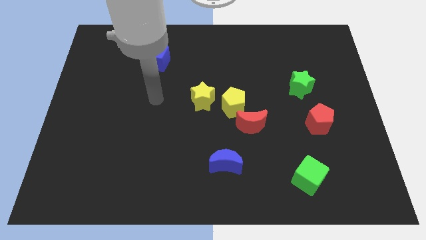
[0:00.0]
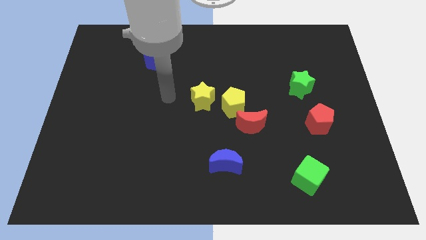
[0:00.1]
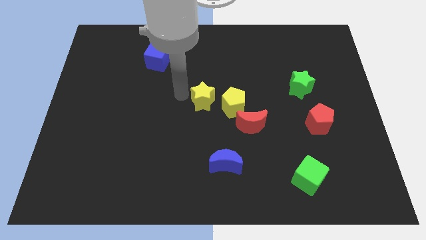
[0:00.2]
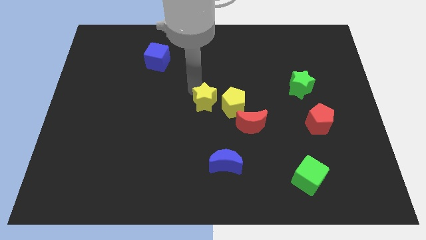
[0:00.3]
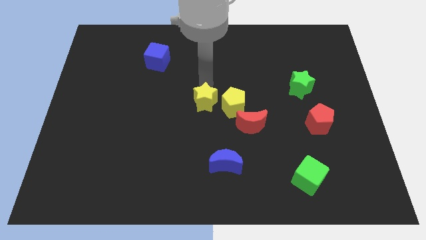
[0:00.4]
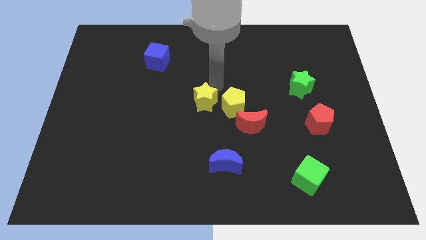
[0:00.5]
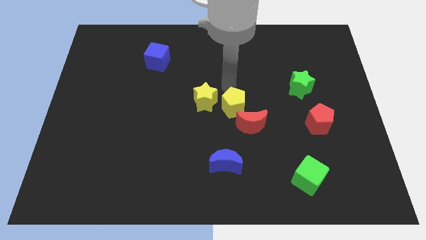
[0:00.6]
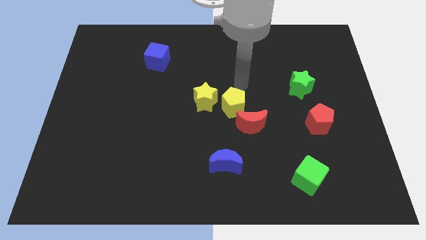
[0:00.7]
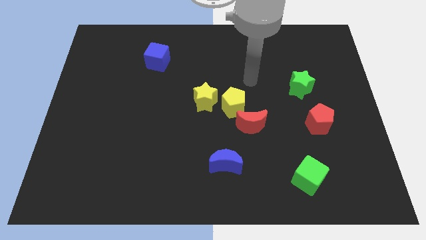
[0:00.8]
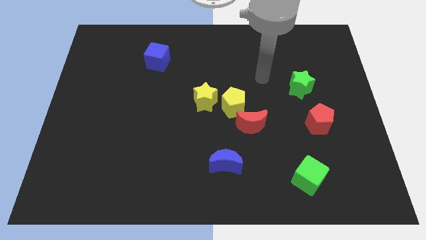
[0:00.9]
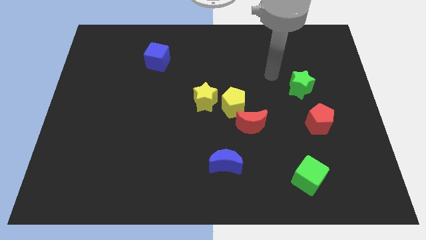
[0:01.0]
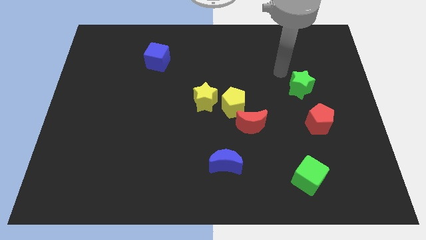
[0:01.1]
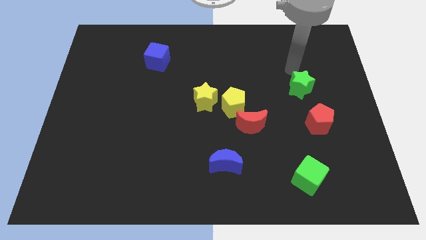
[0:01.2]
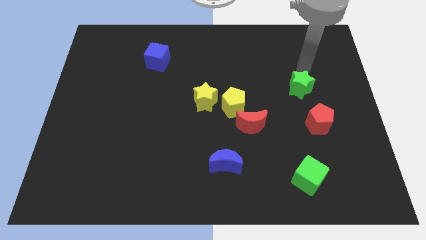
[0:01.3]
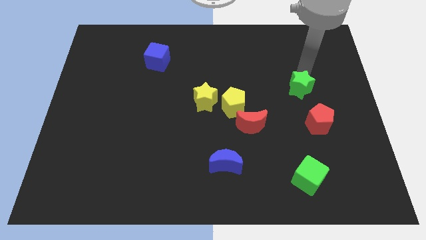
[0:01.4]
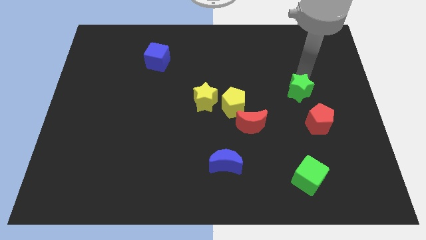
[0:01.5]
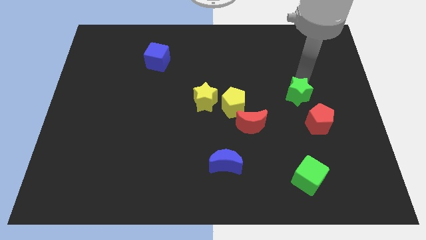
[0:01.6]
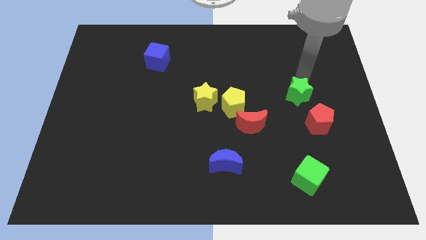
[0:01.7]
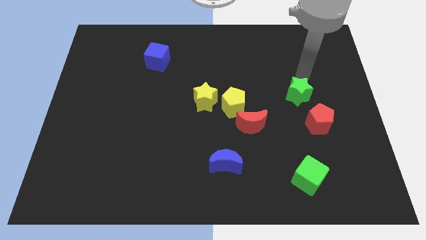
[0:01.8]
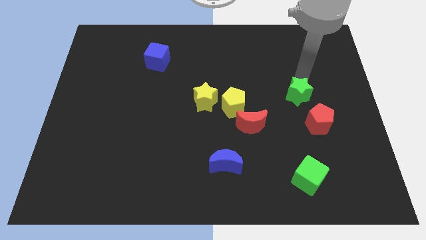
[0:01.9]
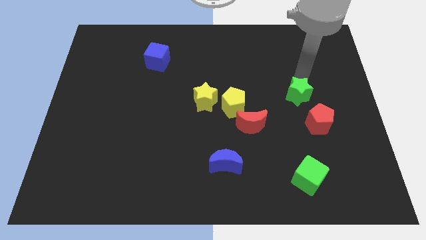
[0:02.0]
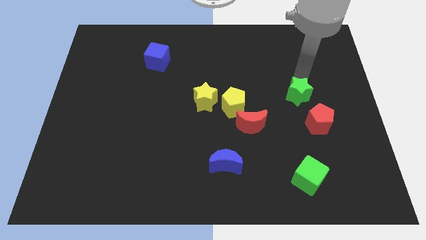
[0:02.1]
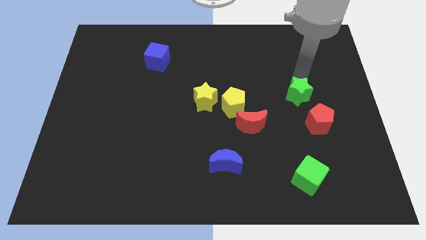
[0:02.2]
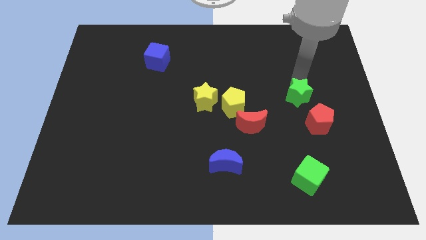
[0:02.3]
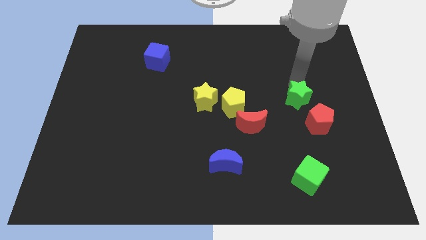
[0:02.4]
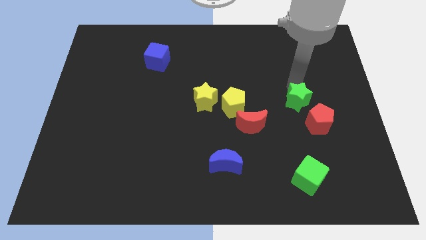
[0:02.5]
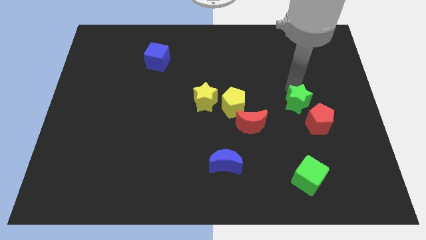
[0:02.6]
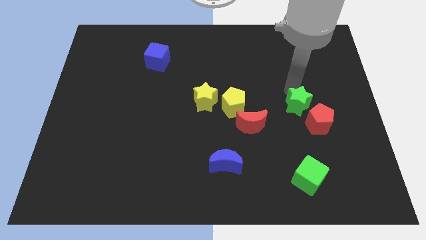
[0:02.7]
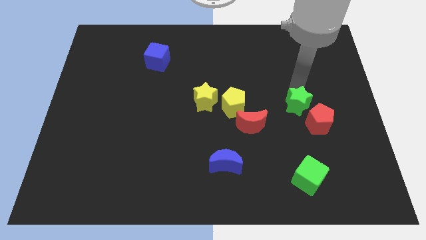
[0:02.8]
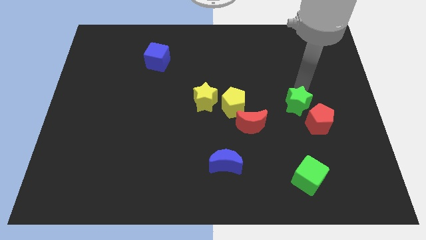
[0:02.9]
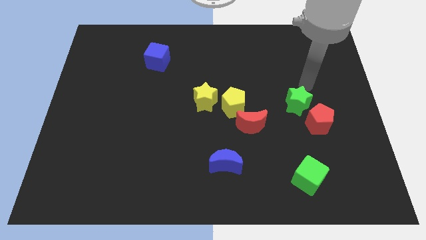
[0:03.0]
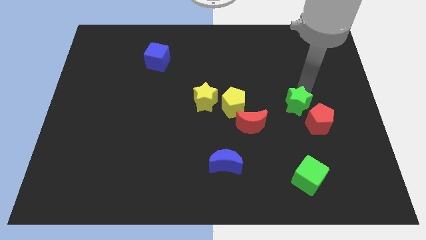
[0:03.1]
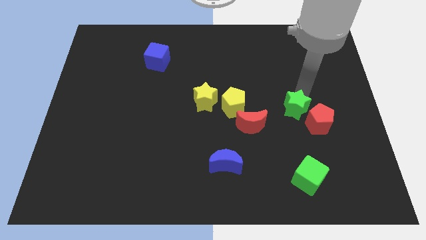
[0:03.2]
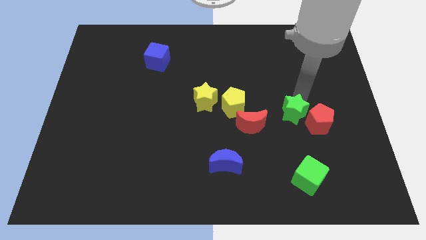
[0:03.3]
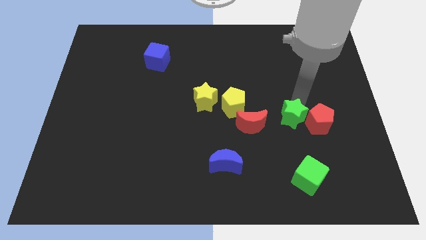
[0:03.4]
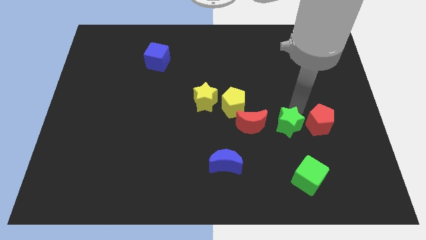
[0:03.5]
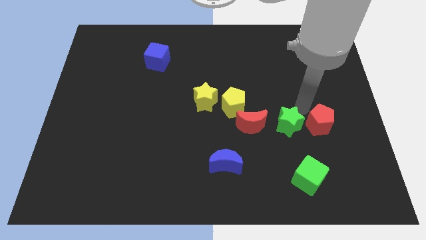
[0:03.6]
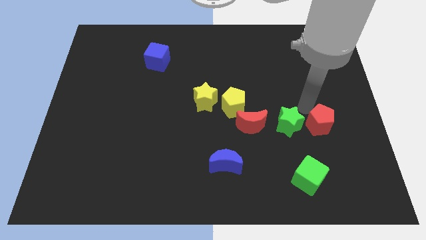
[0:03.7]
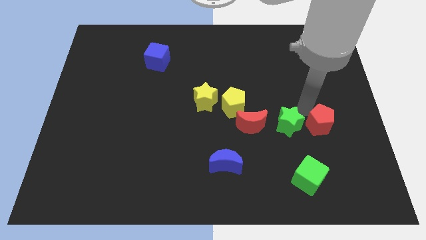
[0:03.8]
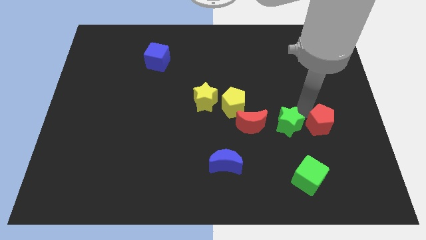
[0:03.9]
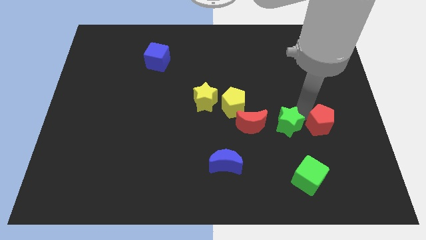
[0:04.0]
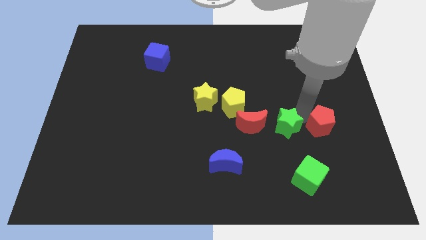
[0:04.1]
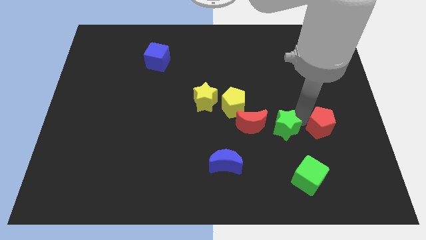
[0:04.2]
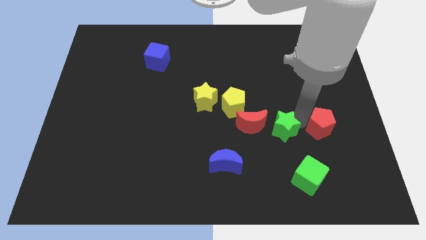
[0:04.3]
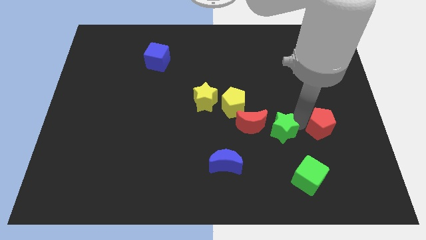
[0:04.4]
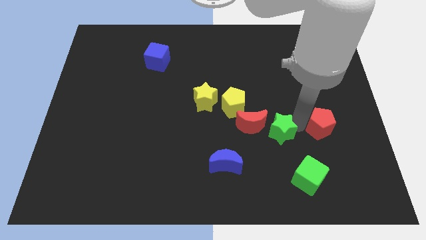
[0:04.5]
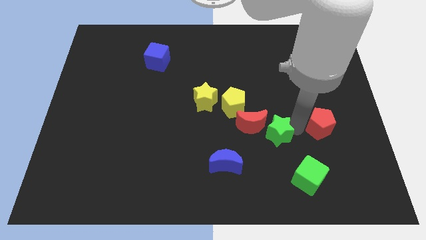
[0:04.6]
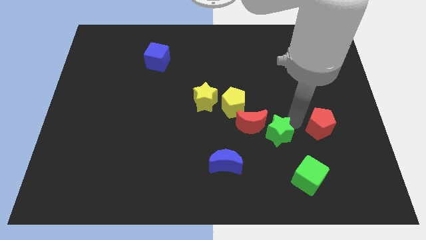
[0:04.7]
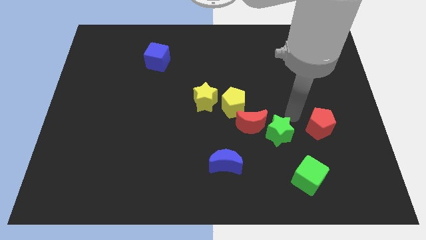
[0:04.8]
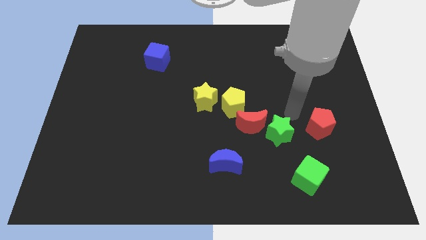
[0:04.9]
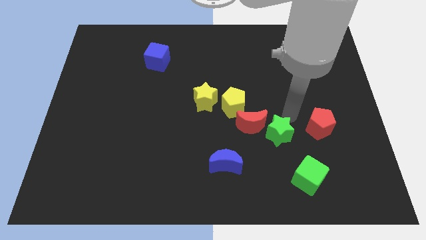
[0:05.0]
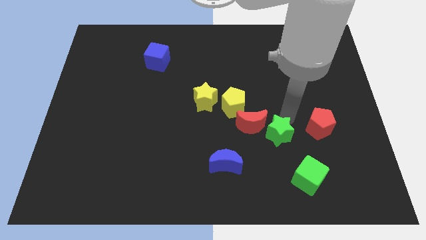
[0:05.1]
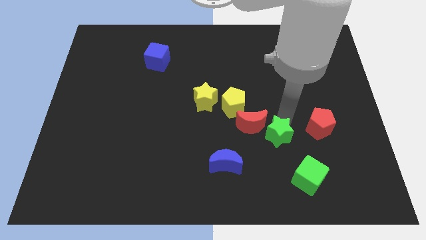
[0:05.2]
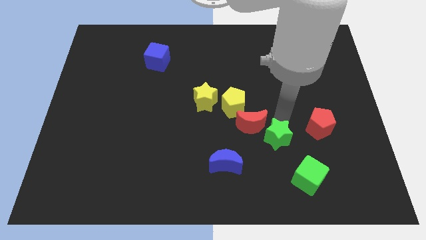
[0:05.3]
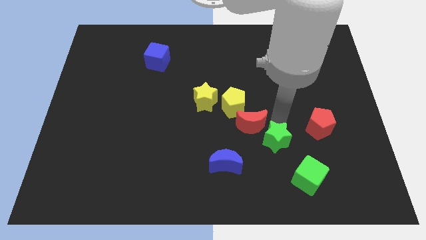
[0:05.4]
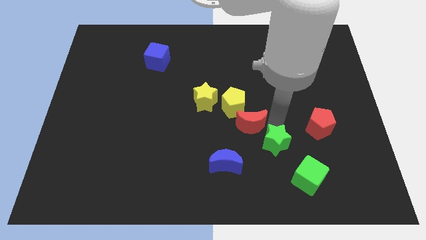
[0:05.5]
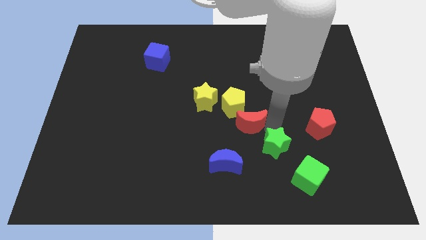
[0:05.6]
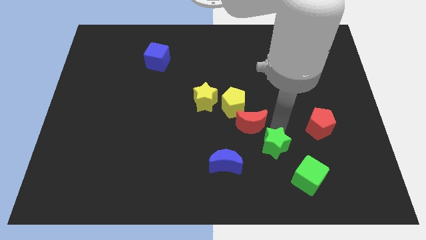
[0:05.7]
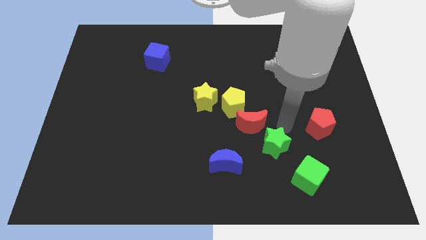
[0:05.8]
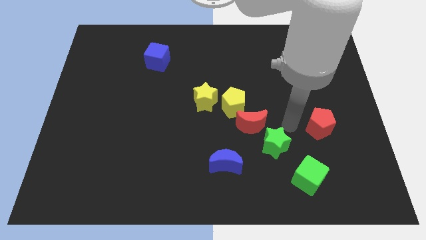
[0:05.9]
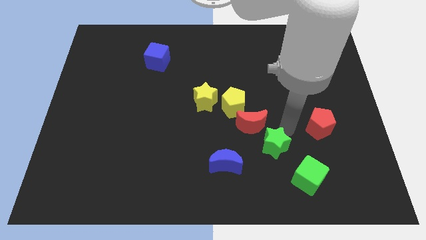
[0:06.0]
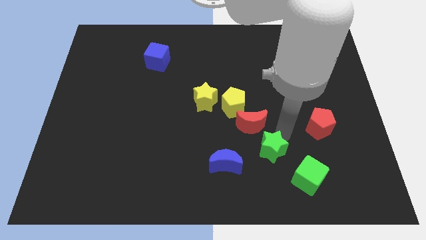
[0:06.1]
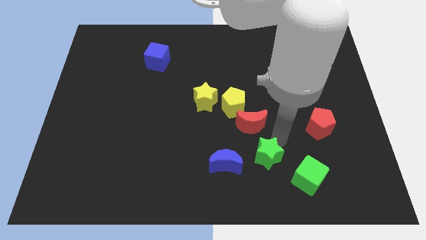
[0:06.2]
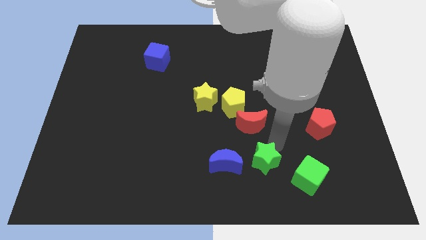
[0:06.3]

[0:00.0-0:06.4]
move the green star downwards and left diagonally

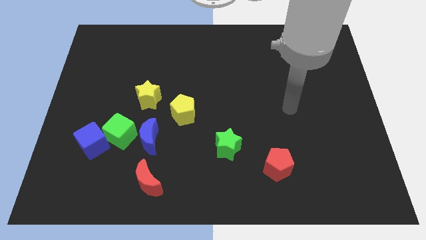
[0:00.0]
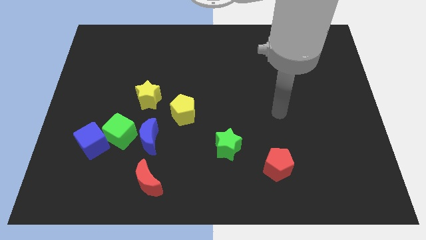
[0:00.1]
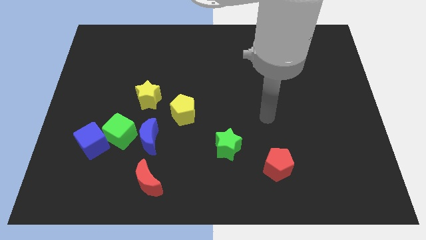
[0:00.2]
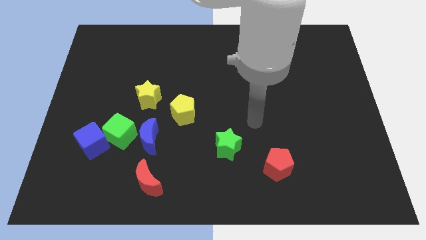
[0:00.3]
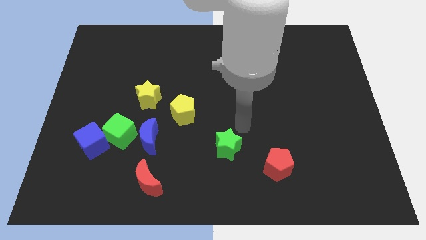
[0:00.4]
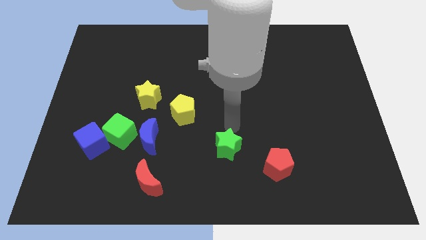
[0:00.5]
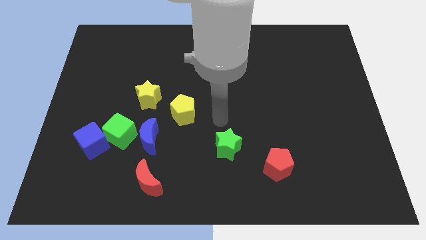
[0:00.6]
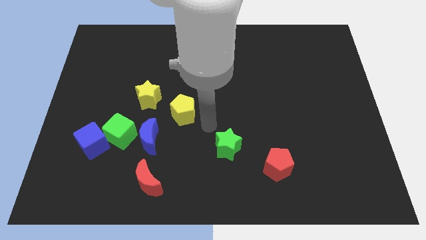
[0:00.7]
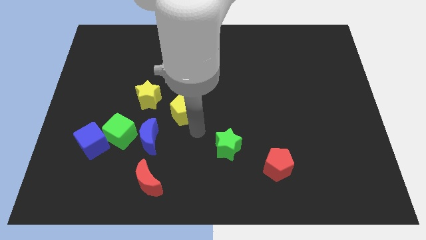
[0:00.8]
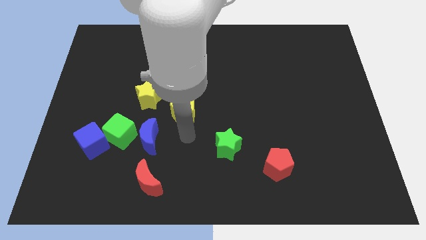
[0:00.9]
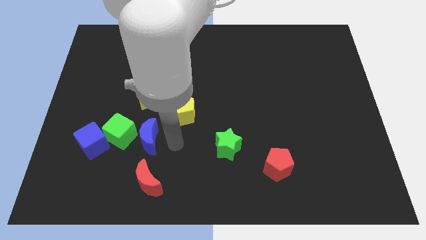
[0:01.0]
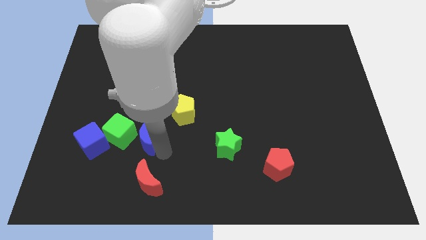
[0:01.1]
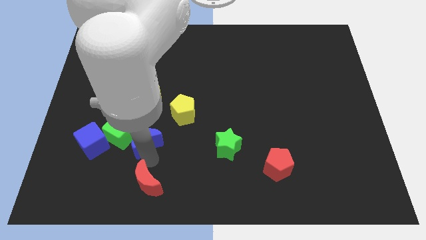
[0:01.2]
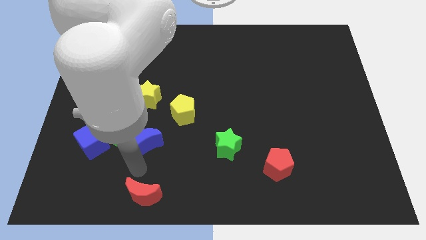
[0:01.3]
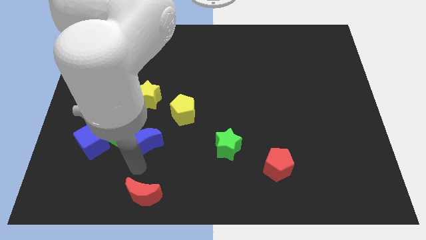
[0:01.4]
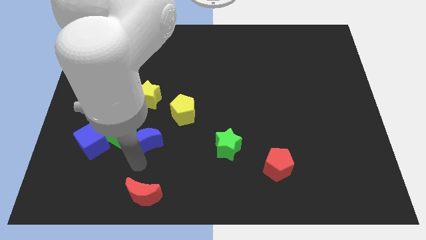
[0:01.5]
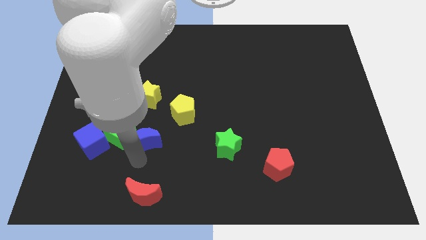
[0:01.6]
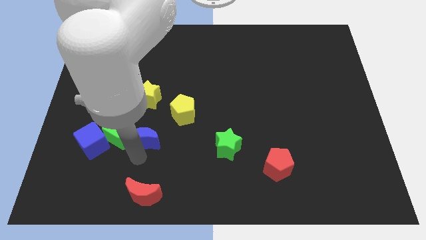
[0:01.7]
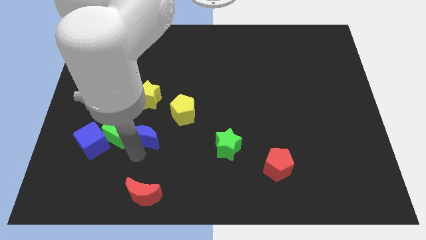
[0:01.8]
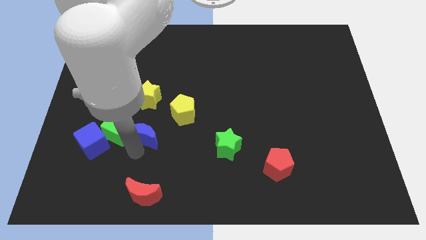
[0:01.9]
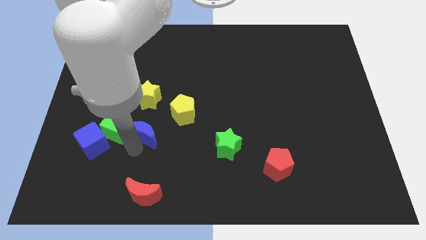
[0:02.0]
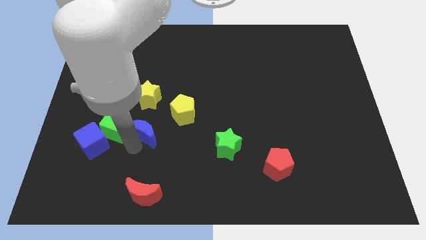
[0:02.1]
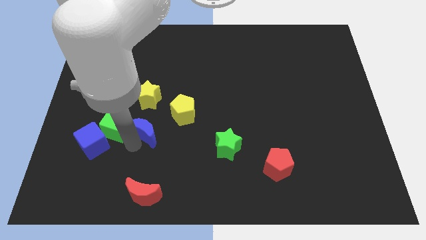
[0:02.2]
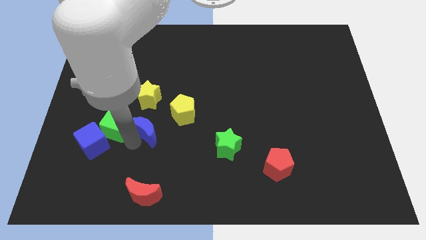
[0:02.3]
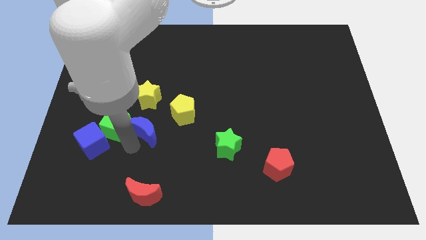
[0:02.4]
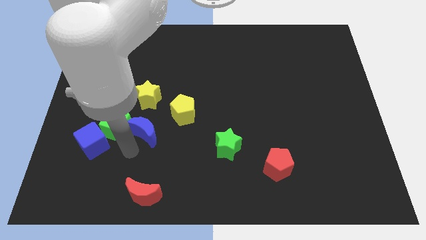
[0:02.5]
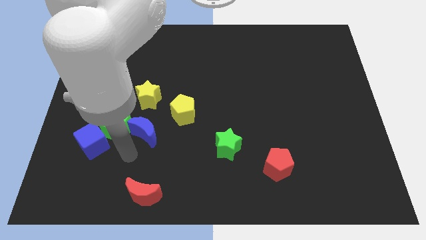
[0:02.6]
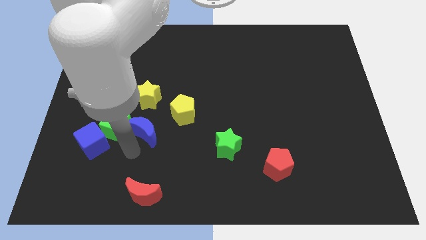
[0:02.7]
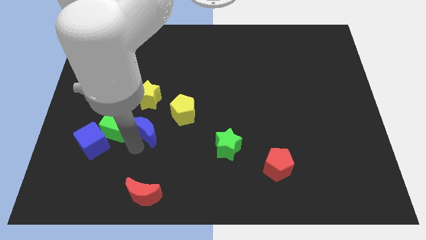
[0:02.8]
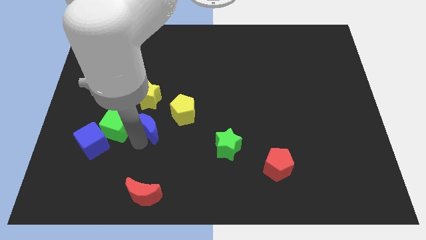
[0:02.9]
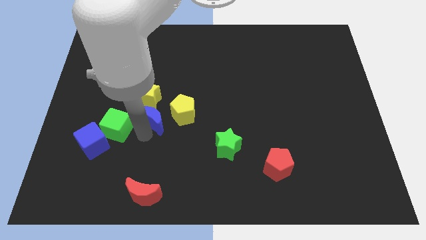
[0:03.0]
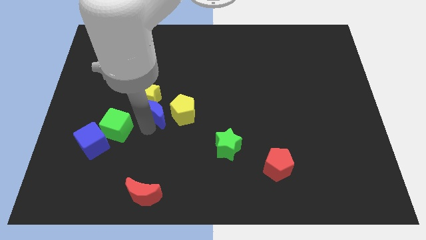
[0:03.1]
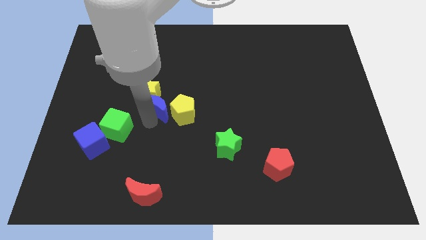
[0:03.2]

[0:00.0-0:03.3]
slightly push the blue moon up
